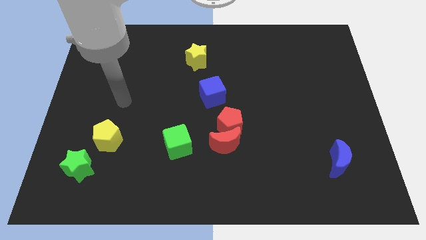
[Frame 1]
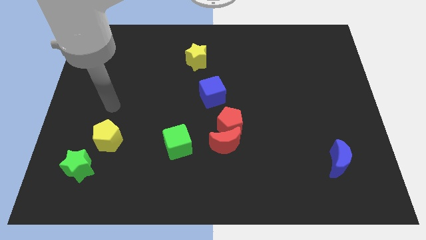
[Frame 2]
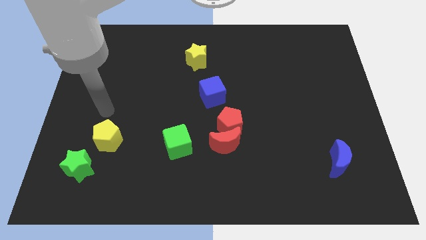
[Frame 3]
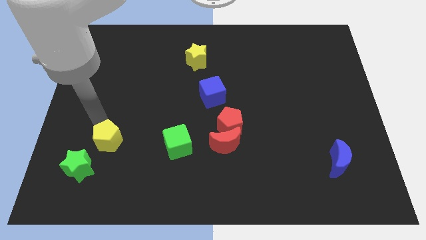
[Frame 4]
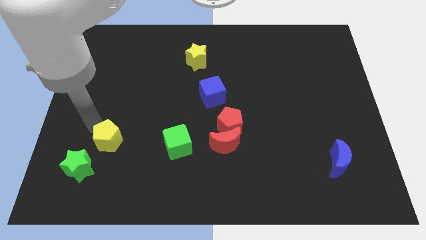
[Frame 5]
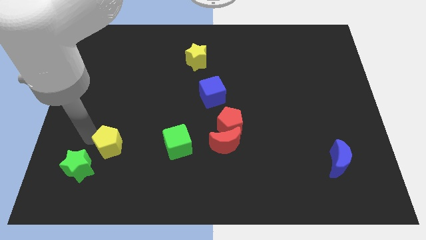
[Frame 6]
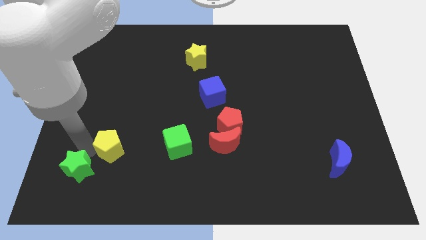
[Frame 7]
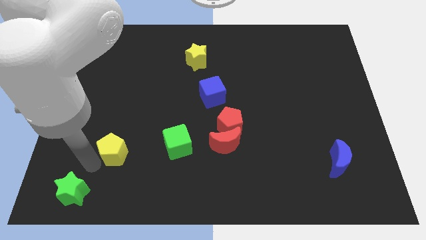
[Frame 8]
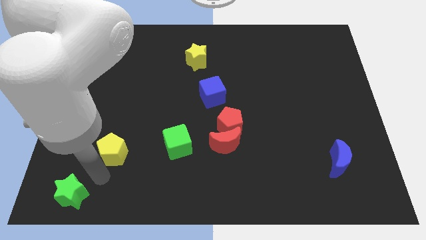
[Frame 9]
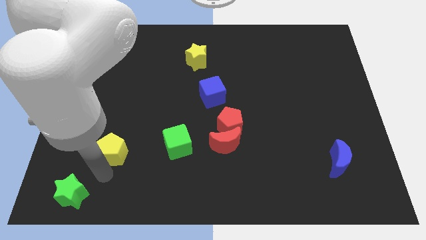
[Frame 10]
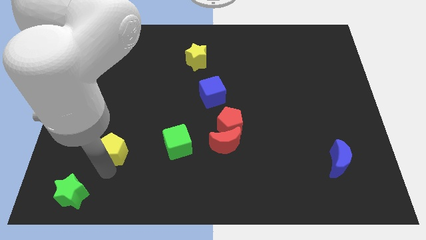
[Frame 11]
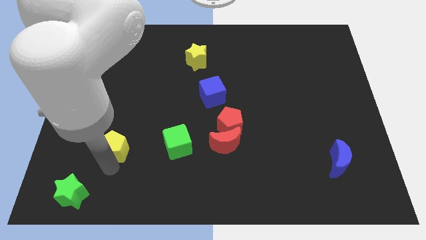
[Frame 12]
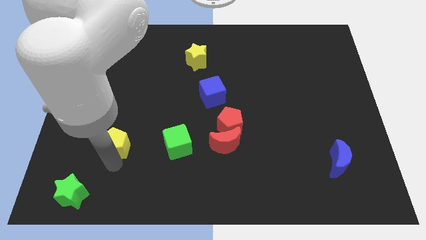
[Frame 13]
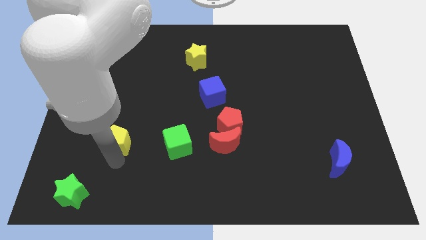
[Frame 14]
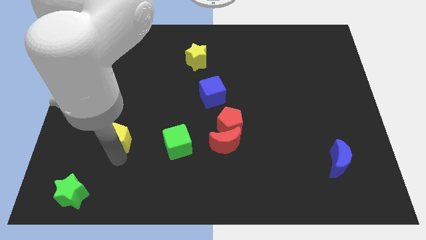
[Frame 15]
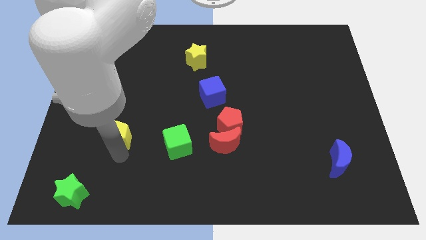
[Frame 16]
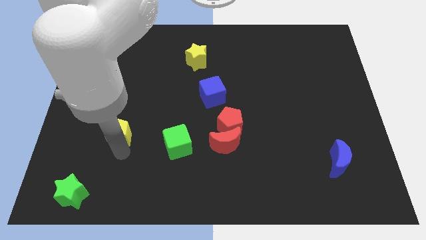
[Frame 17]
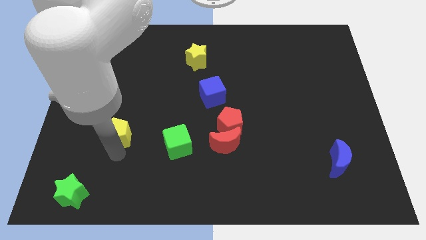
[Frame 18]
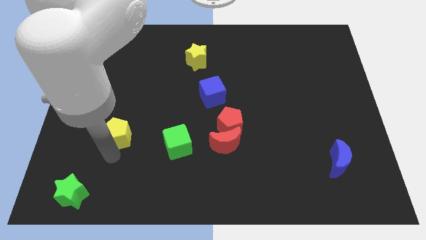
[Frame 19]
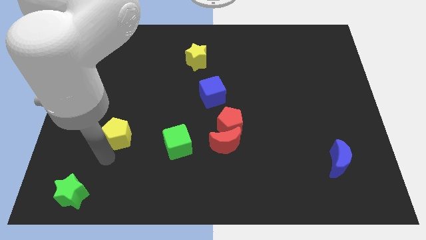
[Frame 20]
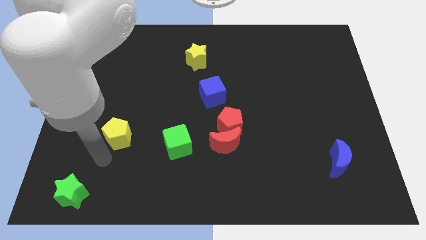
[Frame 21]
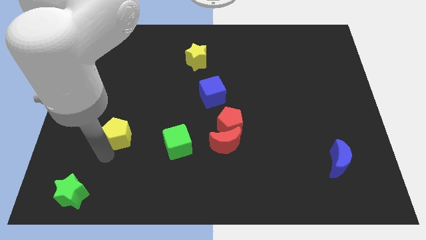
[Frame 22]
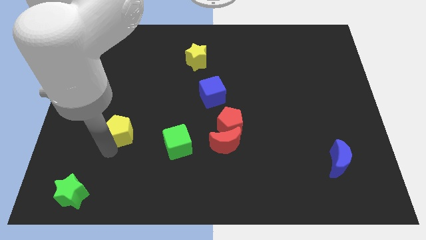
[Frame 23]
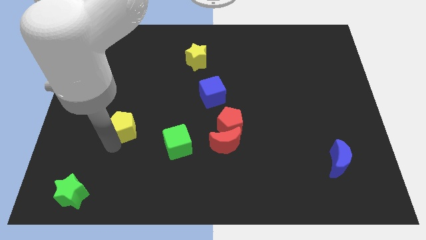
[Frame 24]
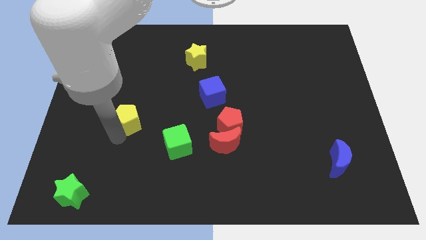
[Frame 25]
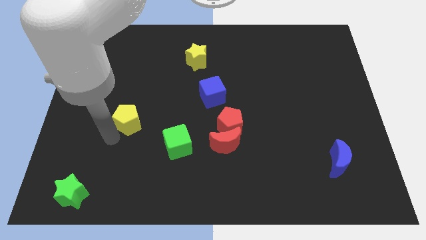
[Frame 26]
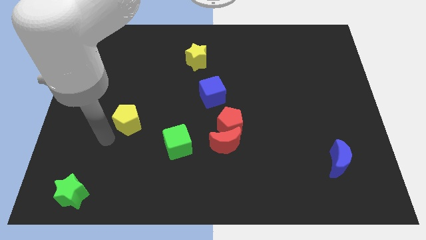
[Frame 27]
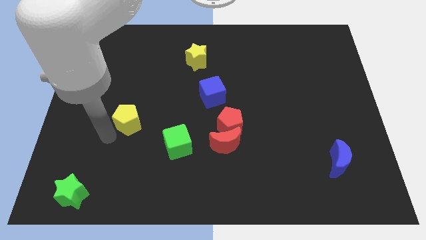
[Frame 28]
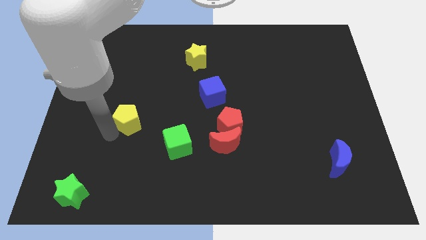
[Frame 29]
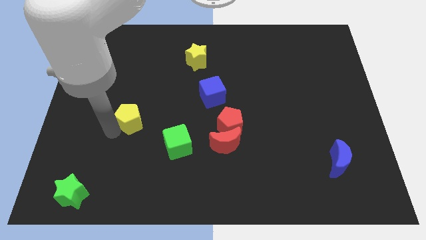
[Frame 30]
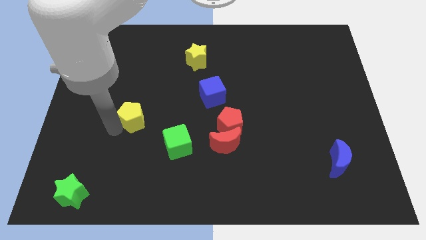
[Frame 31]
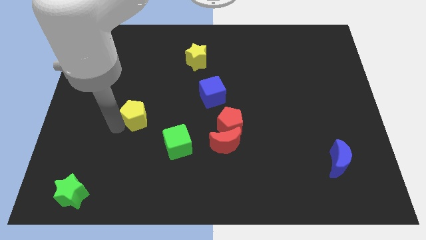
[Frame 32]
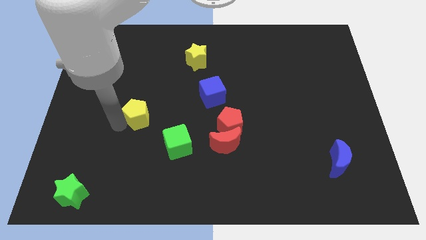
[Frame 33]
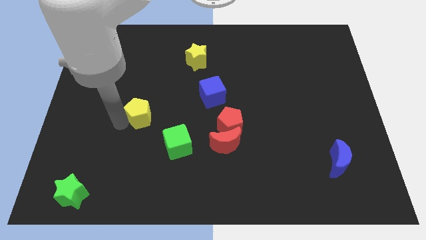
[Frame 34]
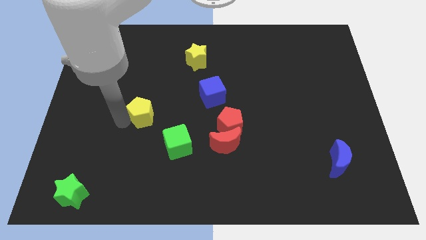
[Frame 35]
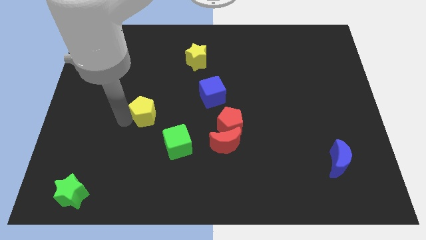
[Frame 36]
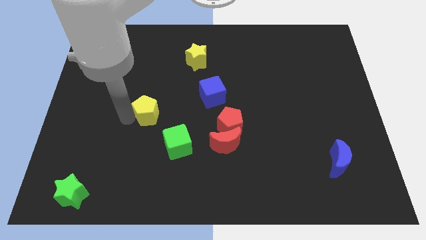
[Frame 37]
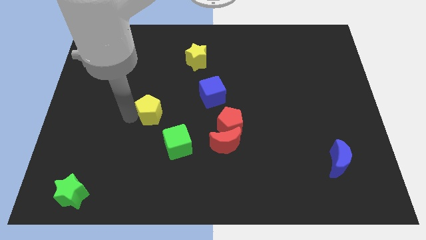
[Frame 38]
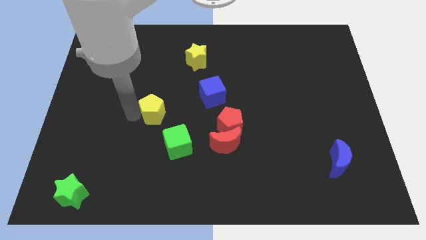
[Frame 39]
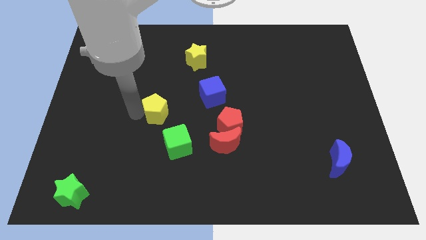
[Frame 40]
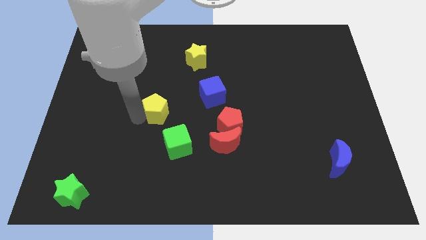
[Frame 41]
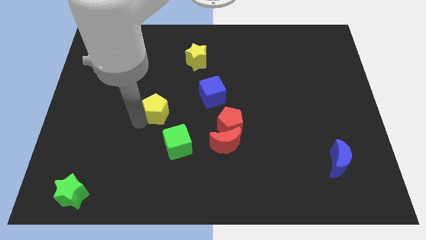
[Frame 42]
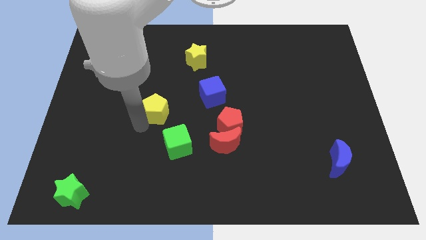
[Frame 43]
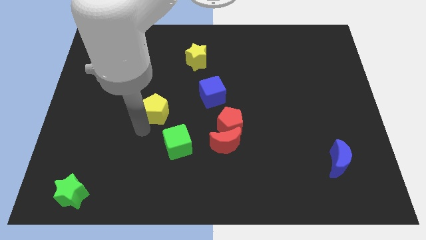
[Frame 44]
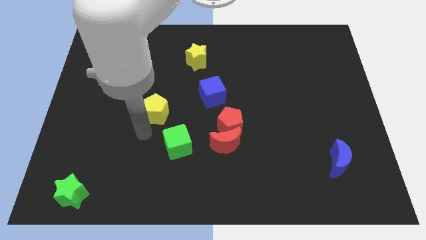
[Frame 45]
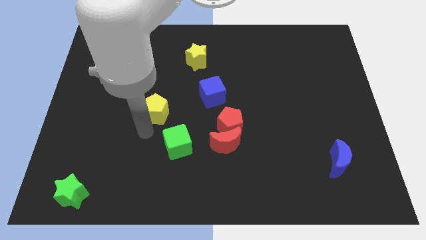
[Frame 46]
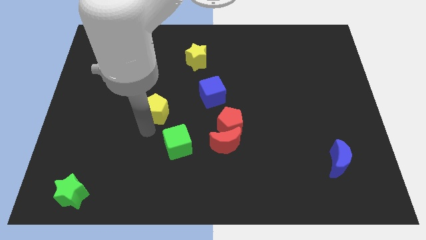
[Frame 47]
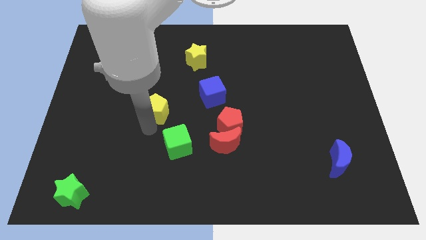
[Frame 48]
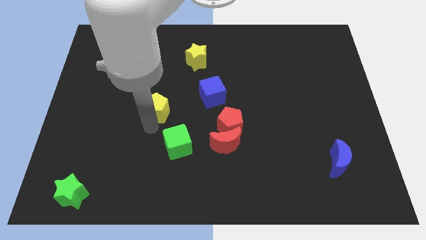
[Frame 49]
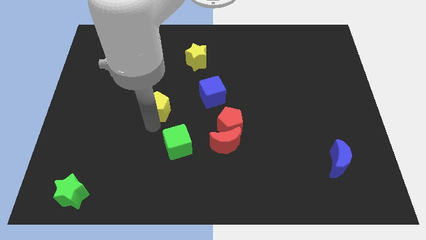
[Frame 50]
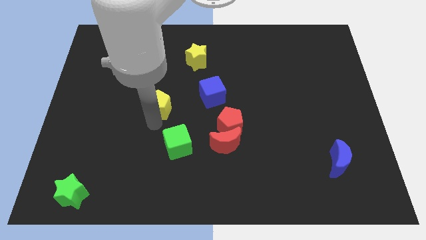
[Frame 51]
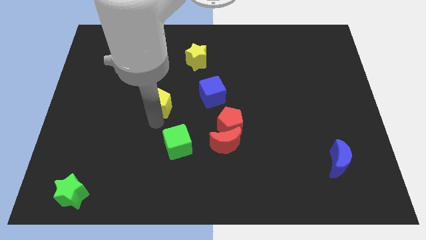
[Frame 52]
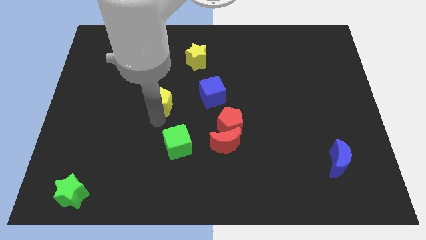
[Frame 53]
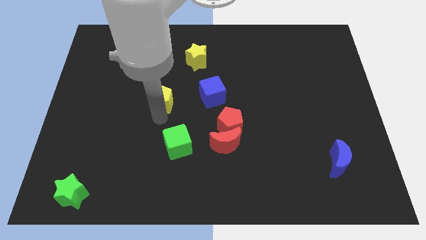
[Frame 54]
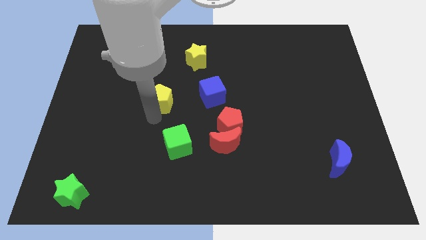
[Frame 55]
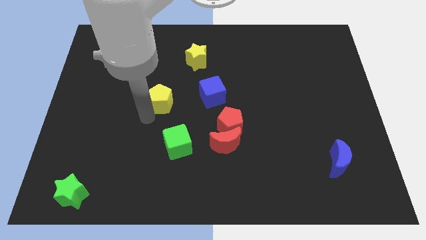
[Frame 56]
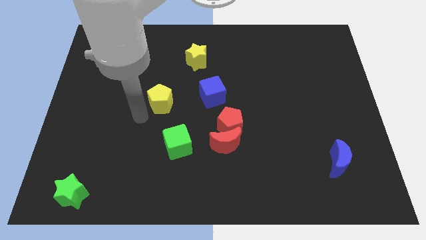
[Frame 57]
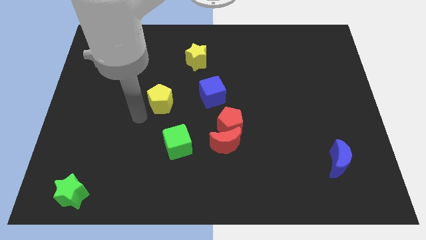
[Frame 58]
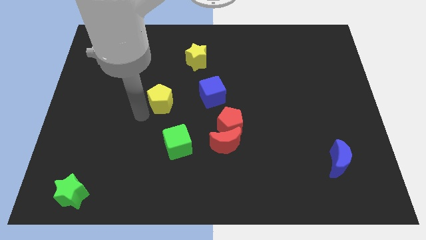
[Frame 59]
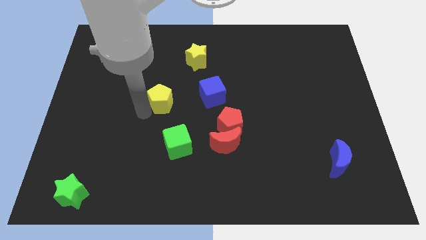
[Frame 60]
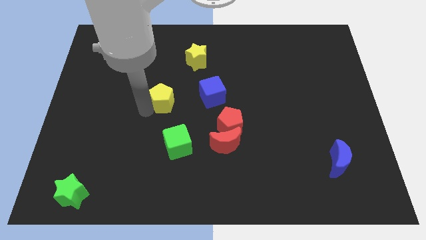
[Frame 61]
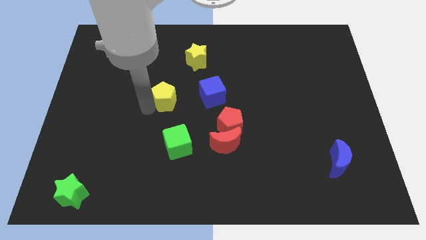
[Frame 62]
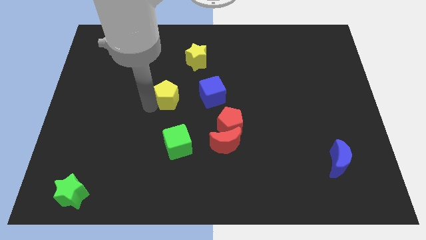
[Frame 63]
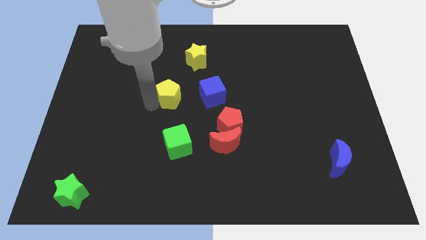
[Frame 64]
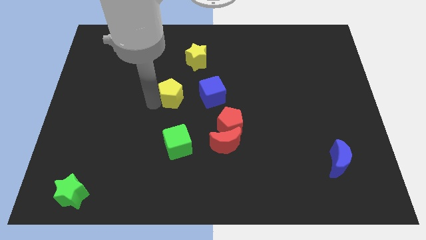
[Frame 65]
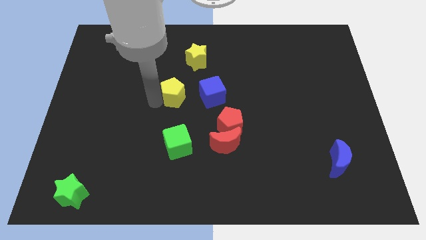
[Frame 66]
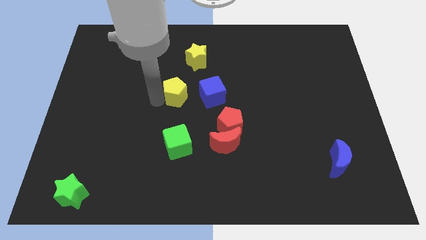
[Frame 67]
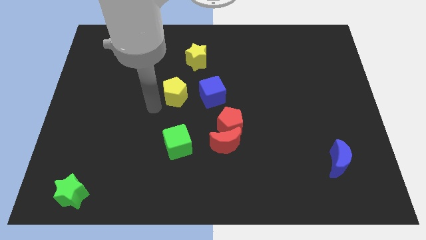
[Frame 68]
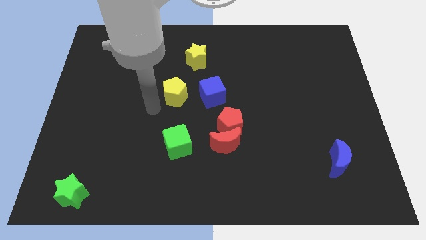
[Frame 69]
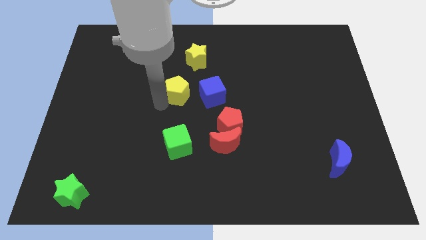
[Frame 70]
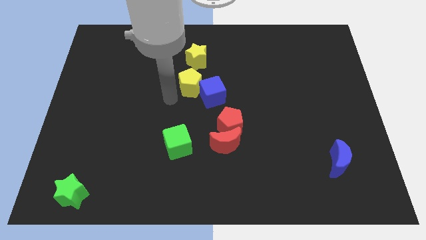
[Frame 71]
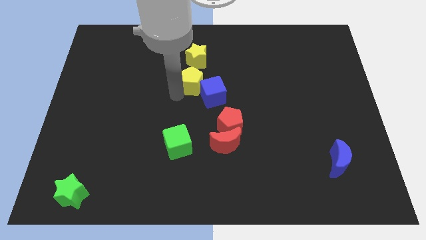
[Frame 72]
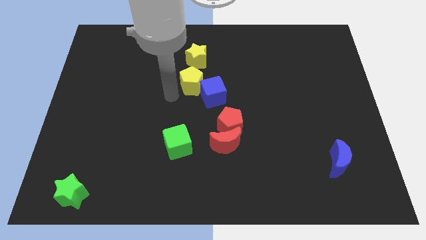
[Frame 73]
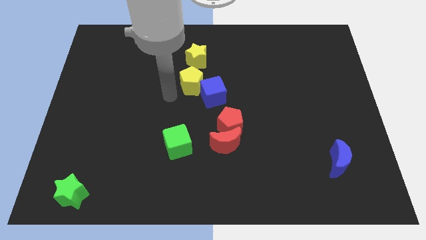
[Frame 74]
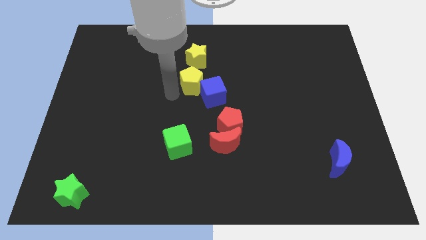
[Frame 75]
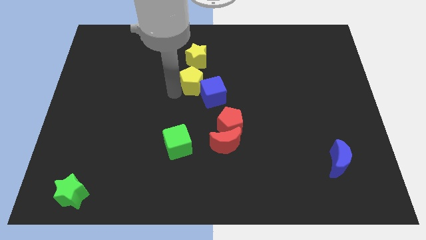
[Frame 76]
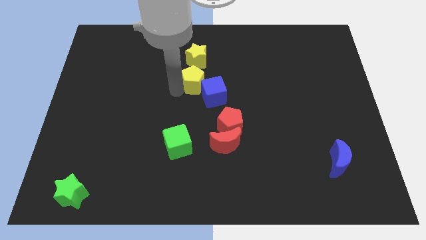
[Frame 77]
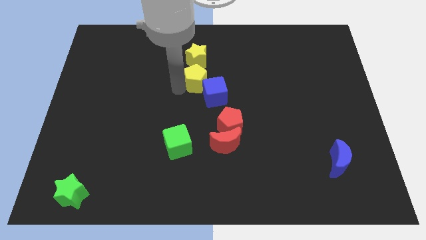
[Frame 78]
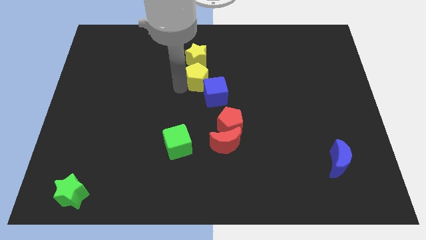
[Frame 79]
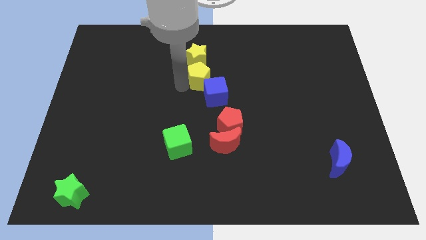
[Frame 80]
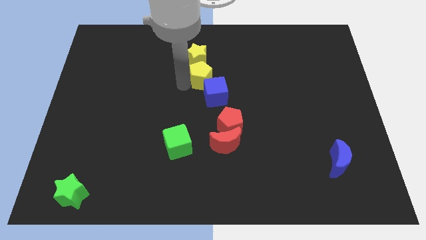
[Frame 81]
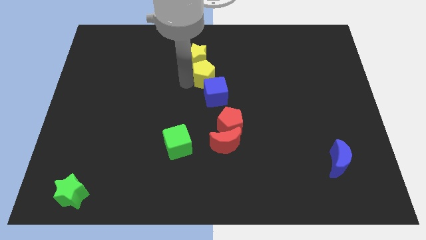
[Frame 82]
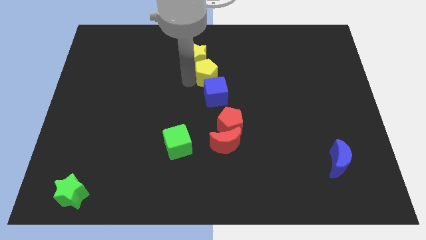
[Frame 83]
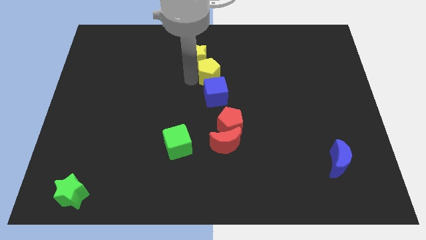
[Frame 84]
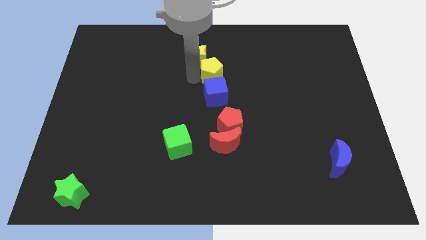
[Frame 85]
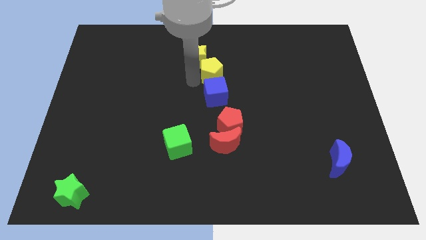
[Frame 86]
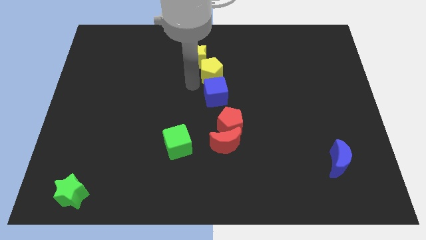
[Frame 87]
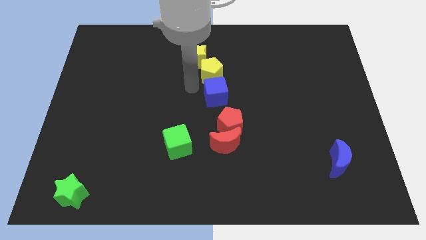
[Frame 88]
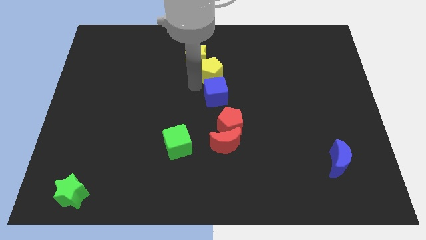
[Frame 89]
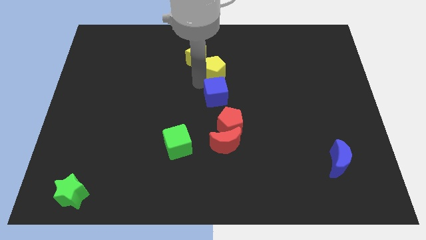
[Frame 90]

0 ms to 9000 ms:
move the yellow pentagon right of the yellow star
